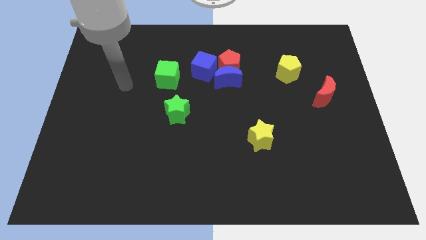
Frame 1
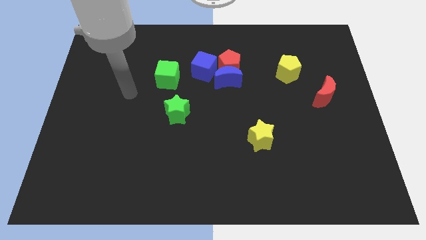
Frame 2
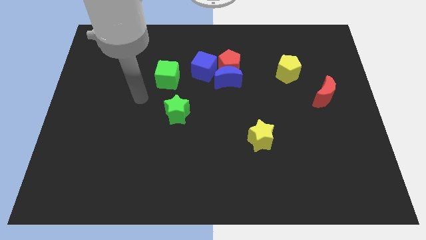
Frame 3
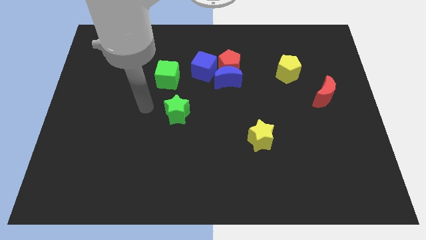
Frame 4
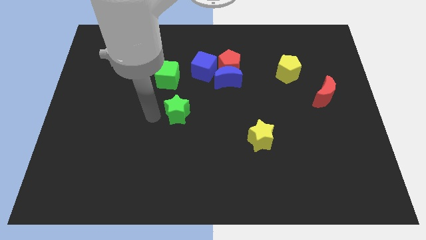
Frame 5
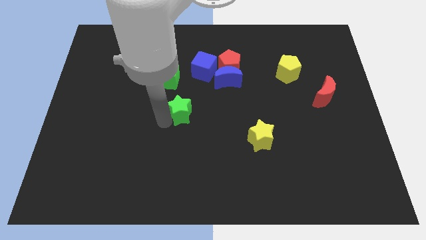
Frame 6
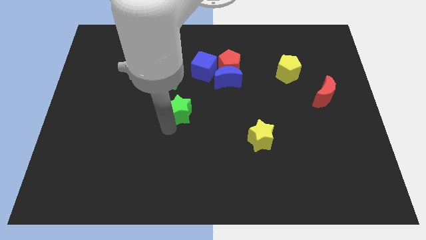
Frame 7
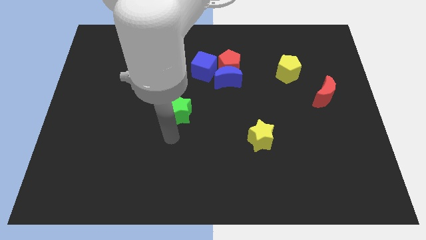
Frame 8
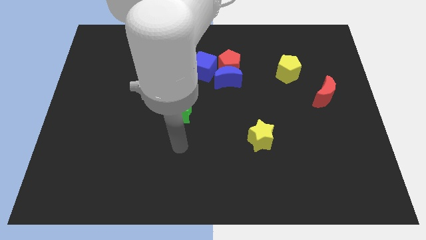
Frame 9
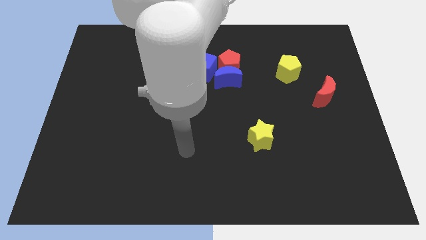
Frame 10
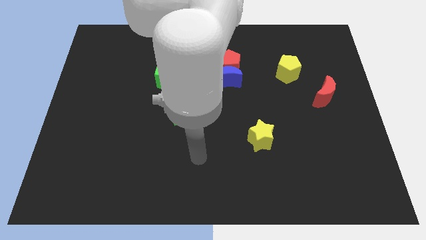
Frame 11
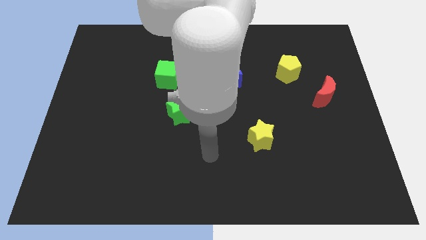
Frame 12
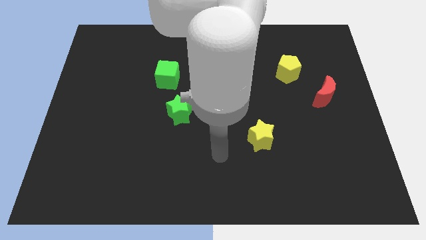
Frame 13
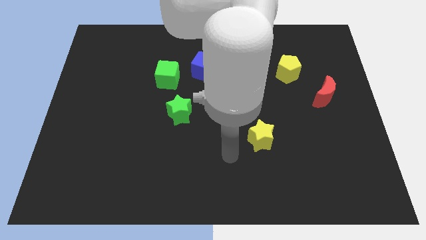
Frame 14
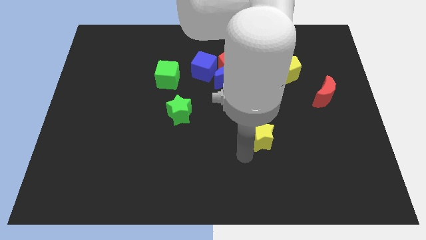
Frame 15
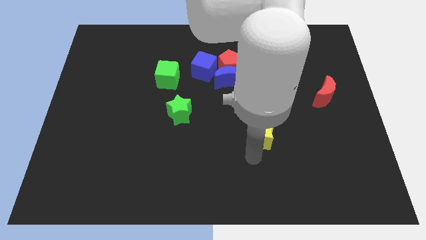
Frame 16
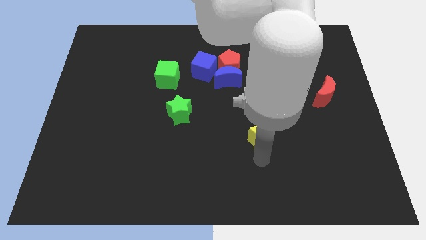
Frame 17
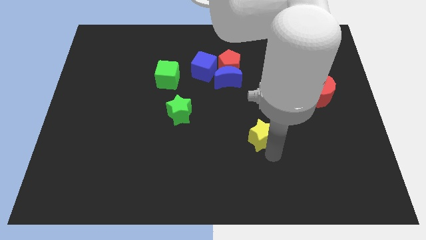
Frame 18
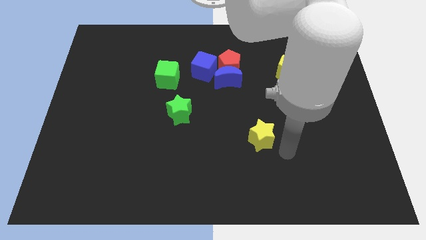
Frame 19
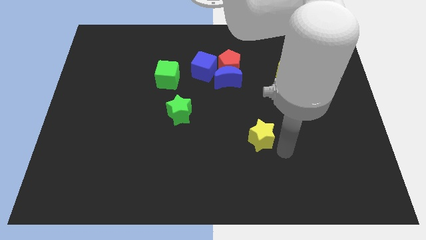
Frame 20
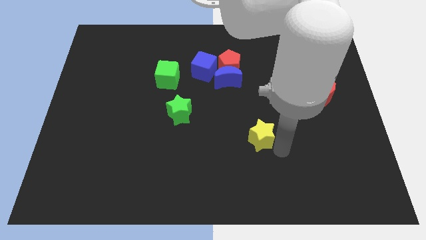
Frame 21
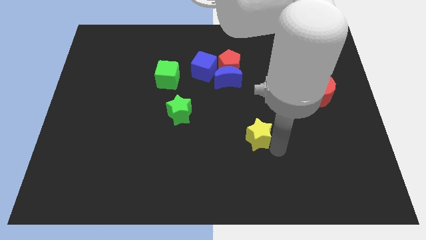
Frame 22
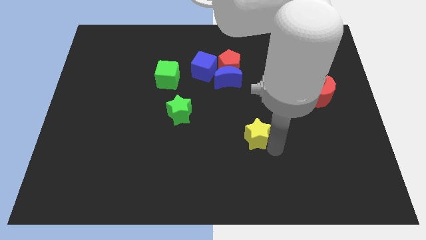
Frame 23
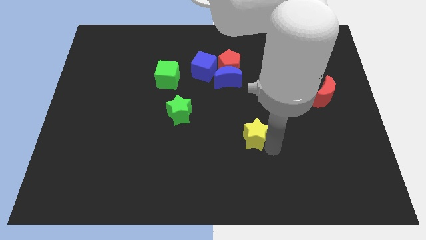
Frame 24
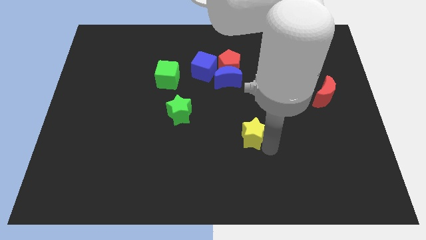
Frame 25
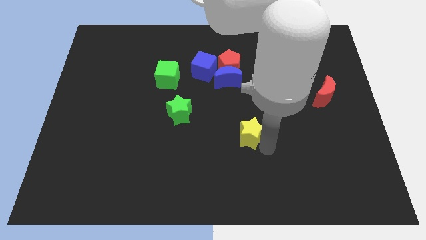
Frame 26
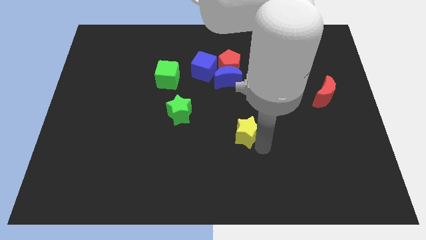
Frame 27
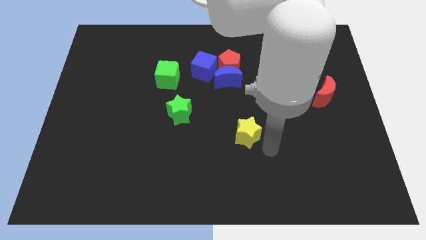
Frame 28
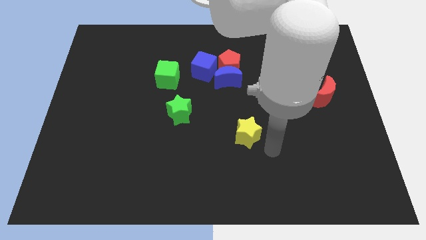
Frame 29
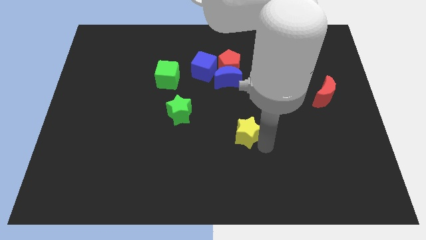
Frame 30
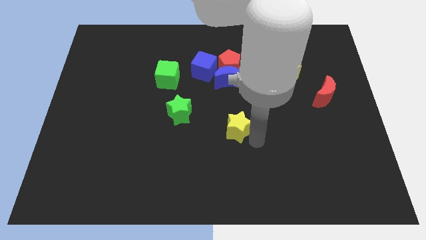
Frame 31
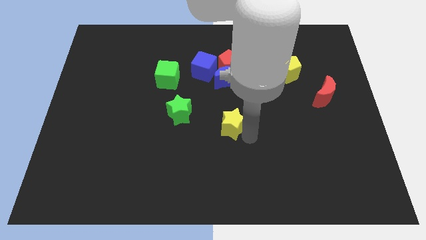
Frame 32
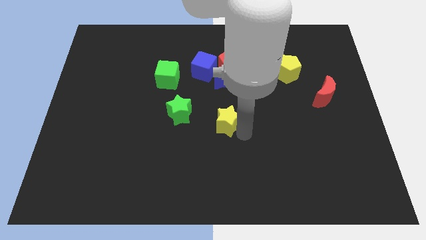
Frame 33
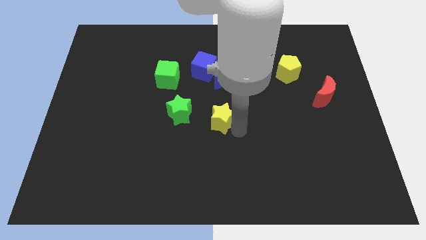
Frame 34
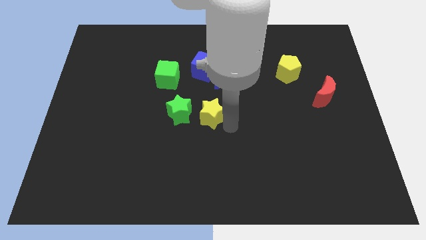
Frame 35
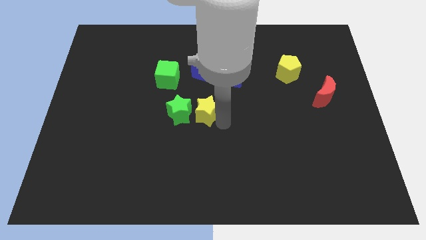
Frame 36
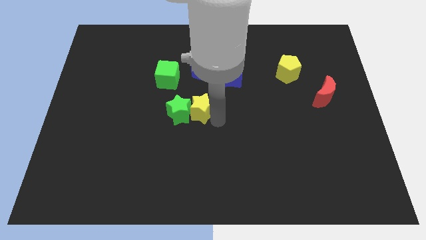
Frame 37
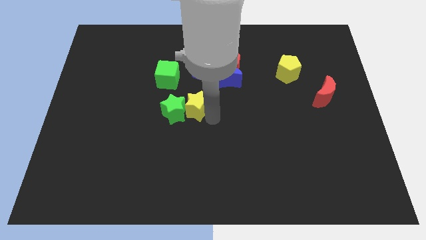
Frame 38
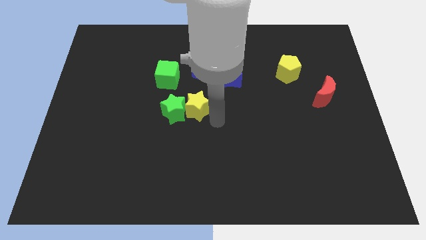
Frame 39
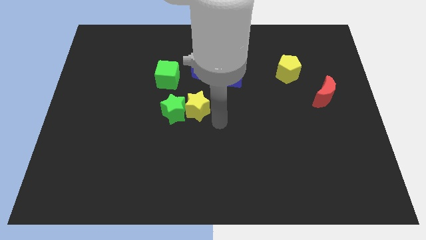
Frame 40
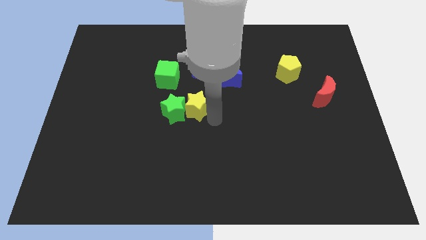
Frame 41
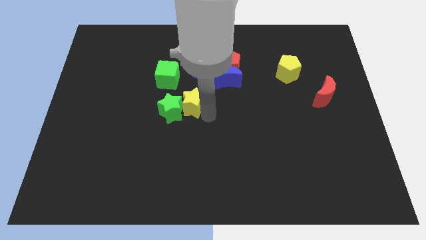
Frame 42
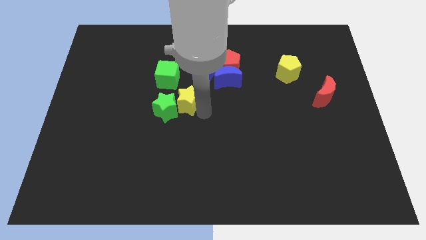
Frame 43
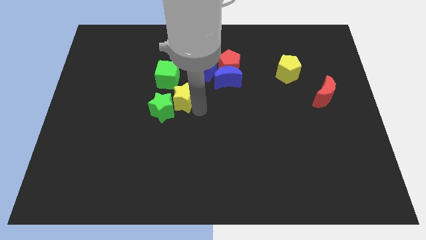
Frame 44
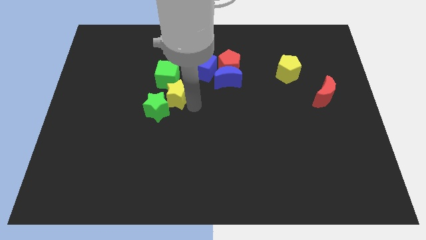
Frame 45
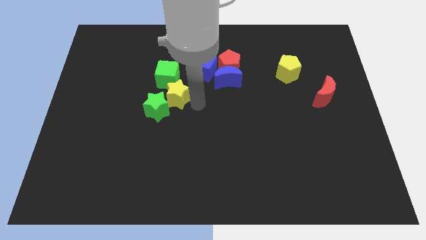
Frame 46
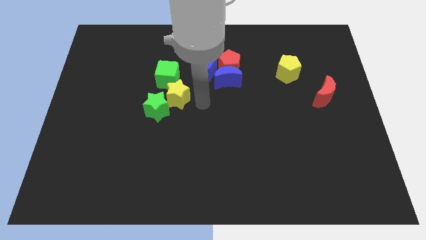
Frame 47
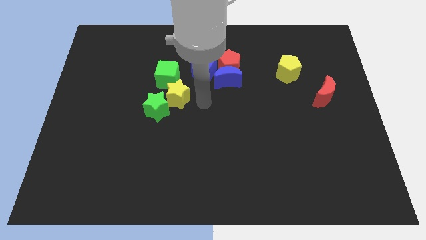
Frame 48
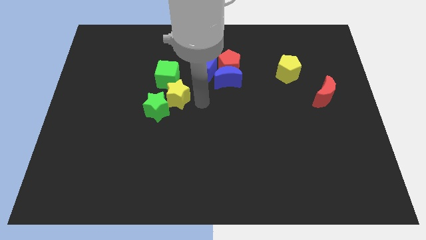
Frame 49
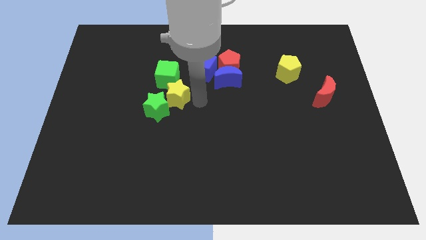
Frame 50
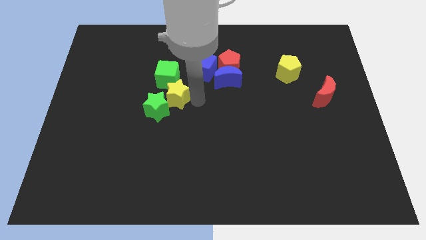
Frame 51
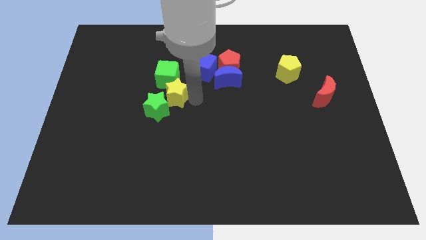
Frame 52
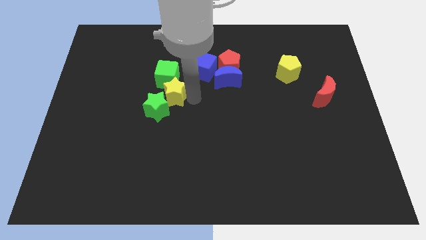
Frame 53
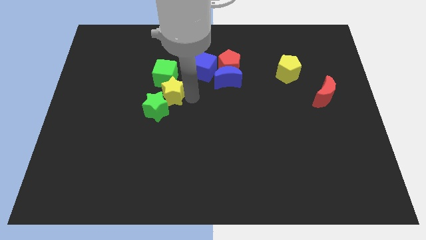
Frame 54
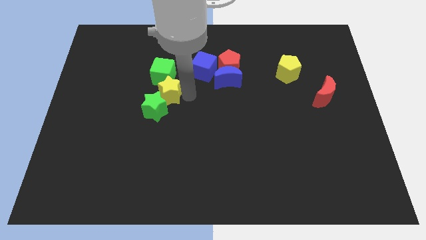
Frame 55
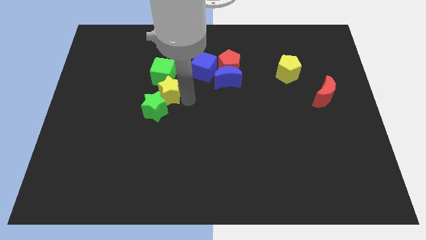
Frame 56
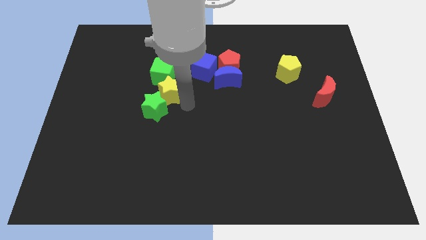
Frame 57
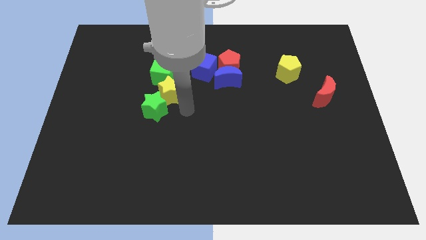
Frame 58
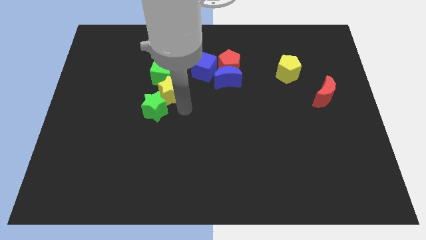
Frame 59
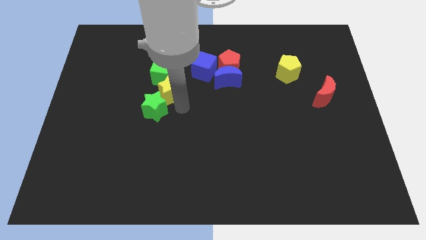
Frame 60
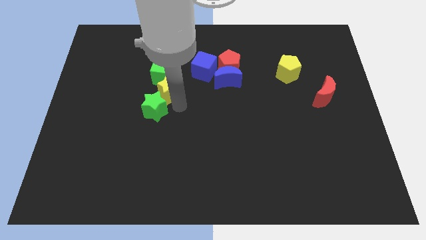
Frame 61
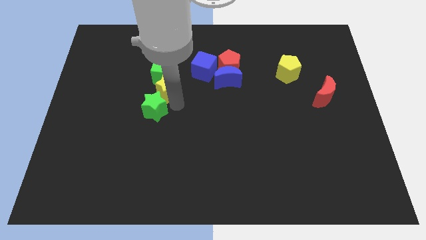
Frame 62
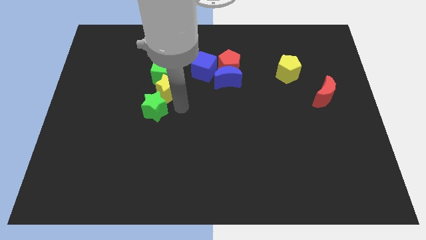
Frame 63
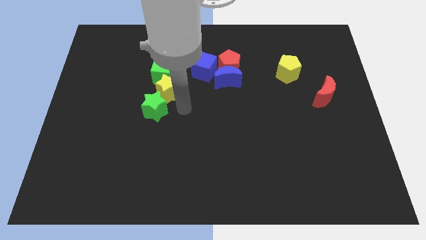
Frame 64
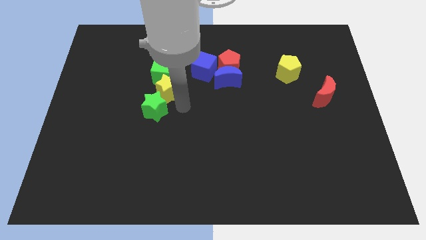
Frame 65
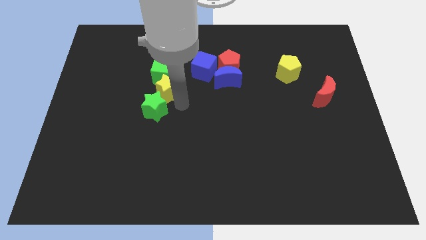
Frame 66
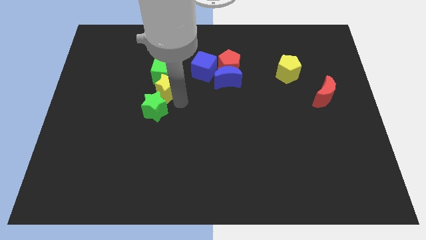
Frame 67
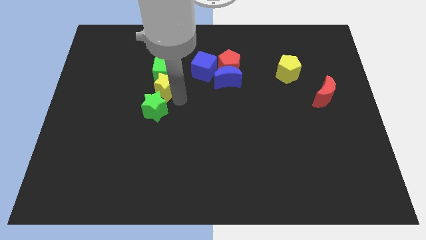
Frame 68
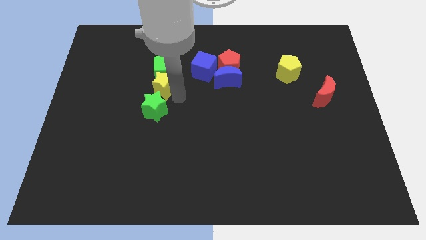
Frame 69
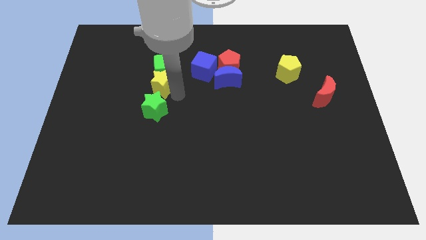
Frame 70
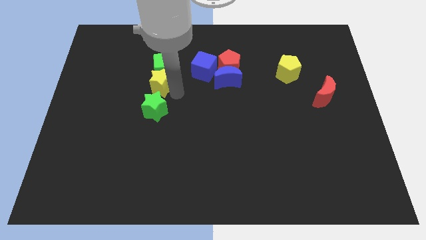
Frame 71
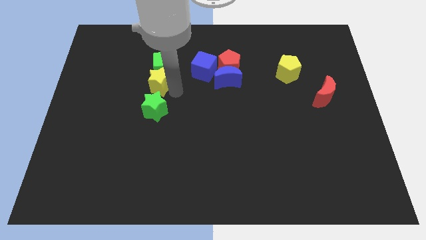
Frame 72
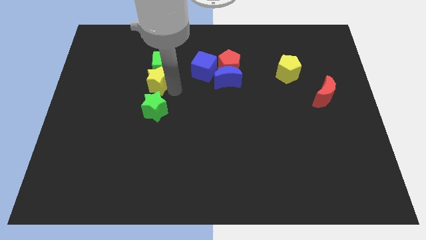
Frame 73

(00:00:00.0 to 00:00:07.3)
push the yellow star just left of the blue cube

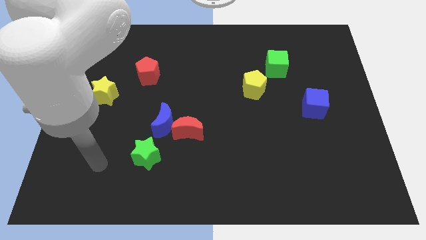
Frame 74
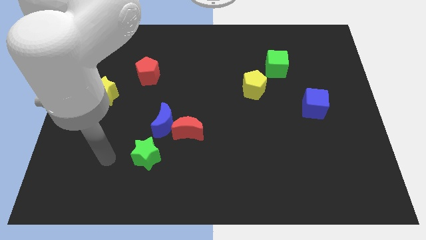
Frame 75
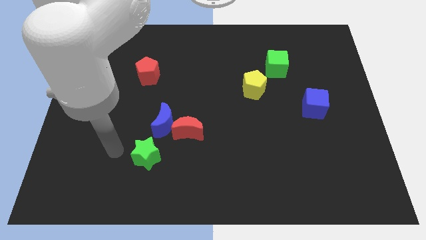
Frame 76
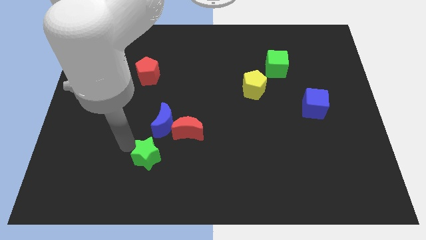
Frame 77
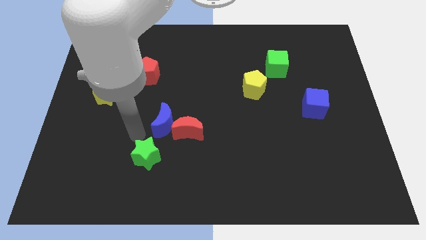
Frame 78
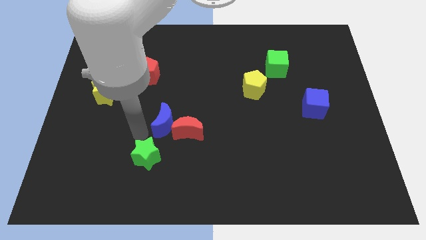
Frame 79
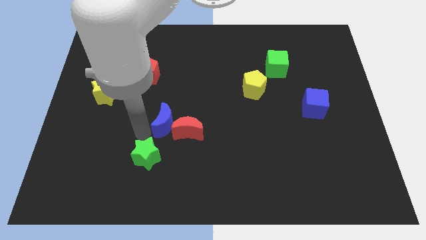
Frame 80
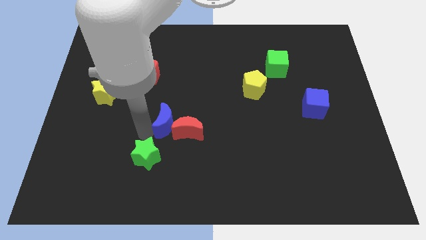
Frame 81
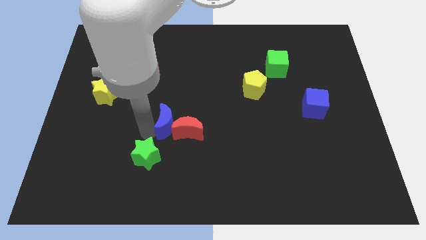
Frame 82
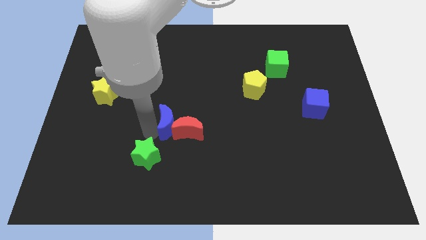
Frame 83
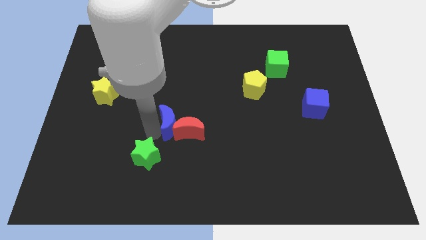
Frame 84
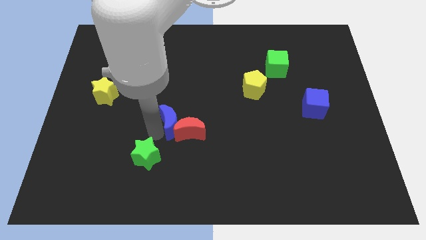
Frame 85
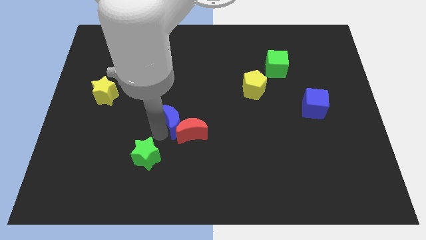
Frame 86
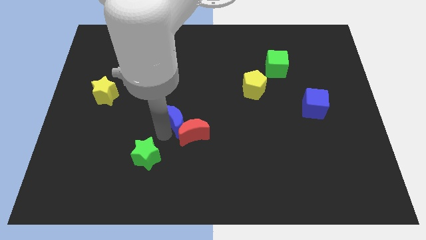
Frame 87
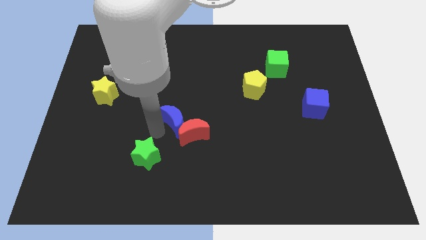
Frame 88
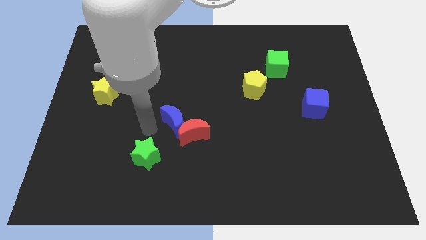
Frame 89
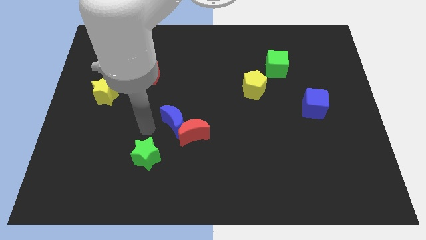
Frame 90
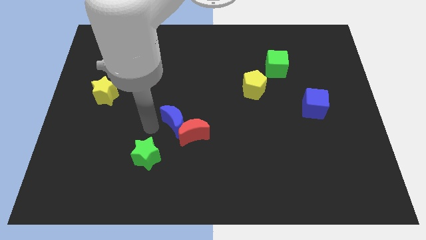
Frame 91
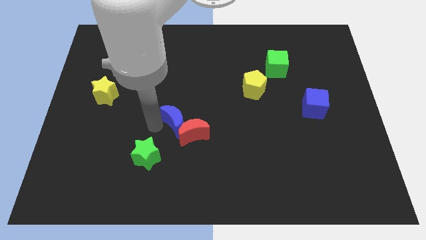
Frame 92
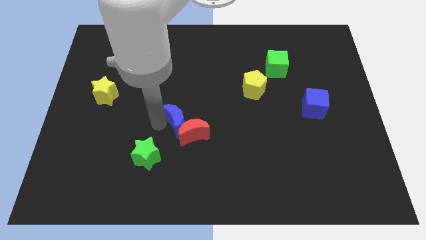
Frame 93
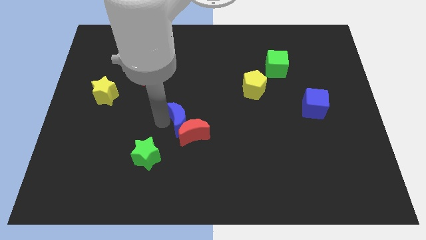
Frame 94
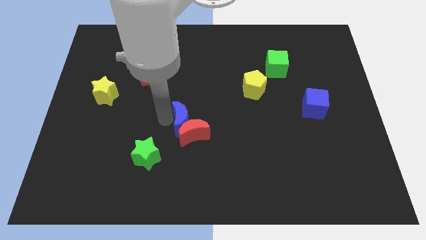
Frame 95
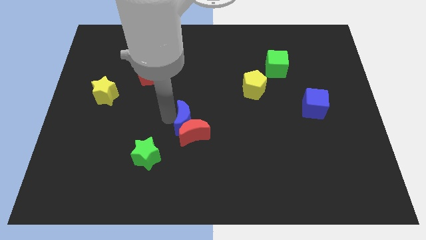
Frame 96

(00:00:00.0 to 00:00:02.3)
put the blue moon diagonally up and to the right of the red moon
